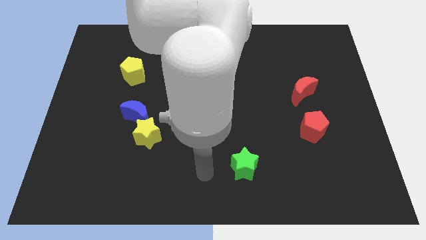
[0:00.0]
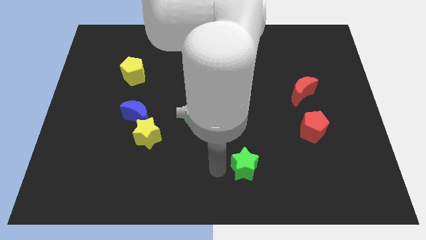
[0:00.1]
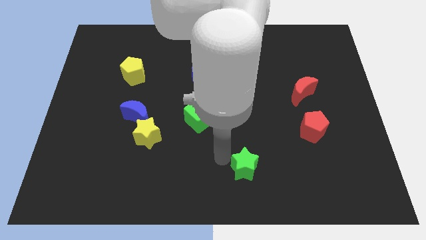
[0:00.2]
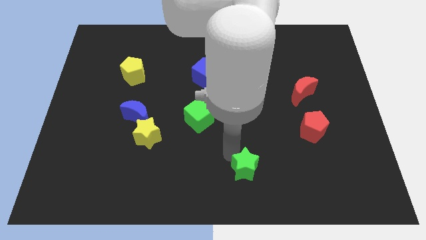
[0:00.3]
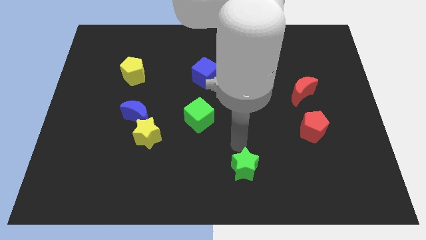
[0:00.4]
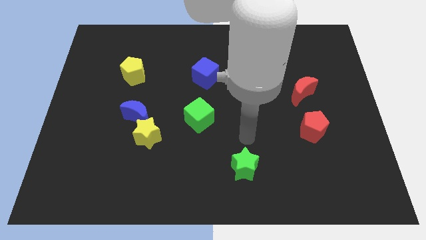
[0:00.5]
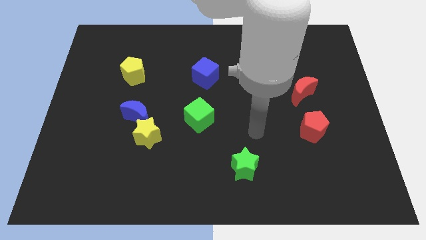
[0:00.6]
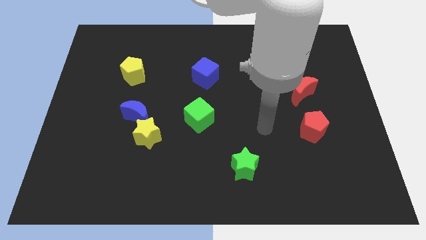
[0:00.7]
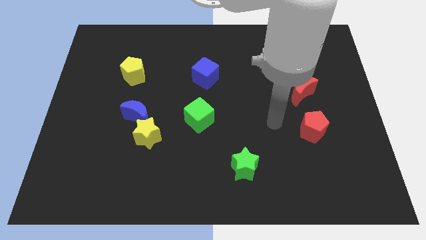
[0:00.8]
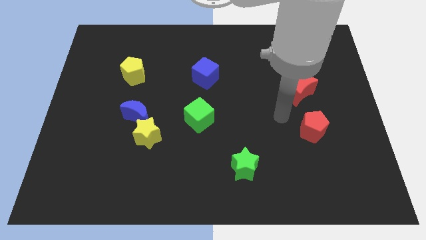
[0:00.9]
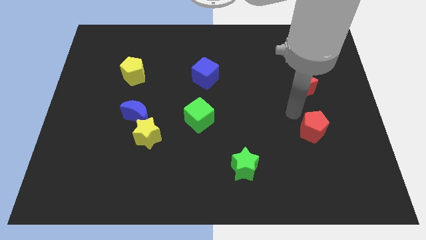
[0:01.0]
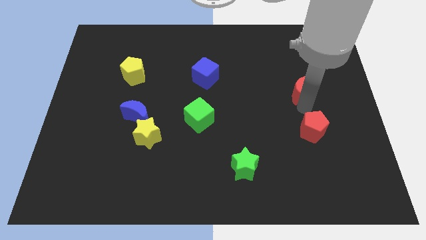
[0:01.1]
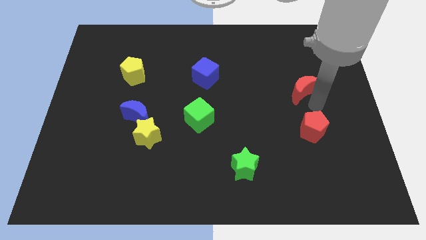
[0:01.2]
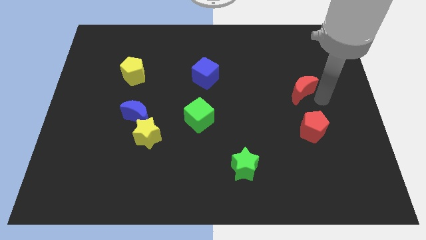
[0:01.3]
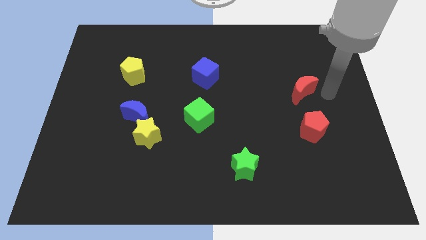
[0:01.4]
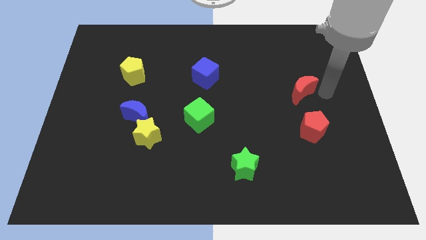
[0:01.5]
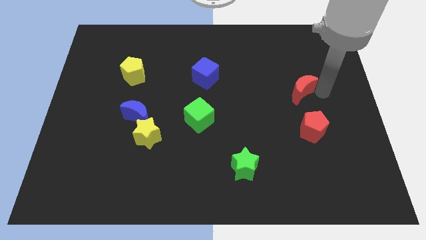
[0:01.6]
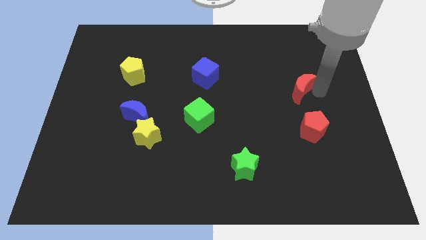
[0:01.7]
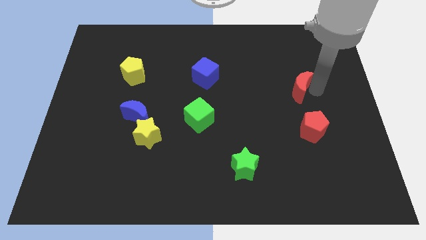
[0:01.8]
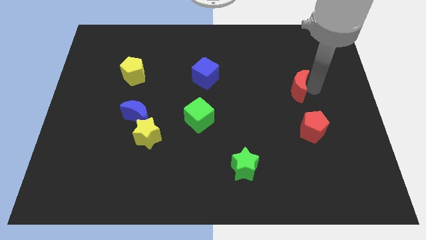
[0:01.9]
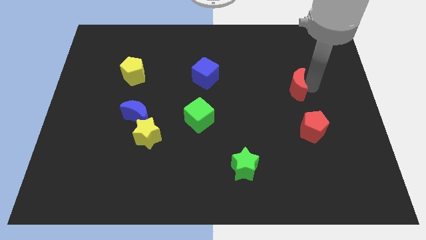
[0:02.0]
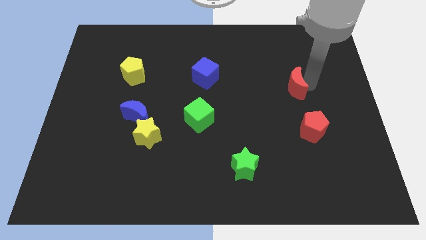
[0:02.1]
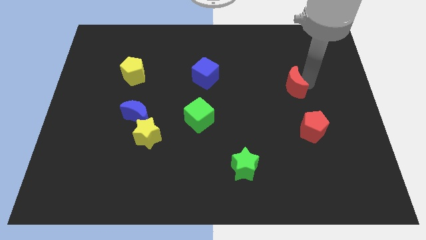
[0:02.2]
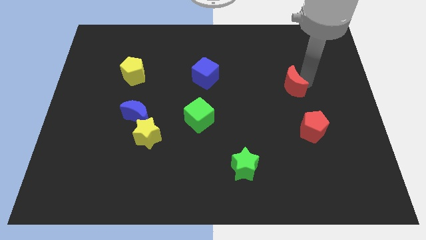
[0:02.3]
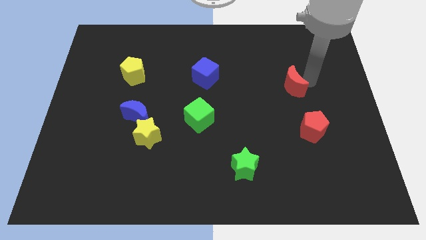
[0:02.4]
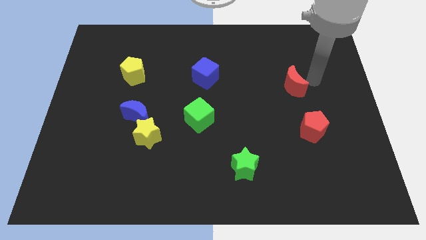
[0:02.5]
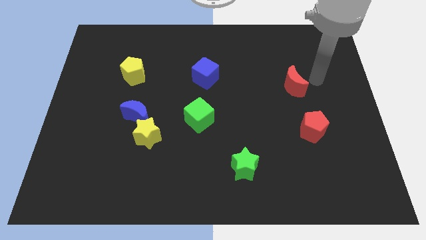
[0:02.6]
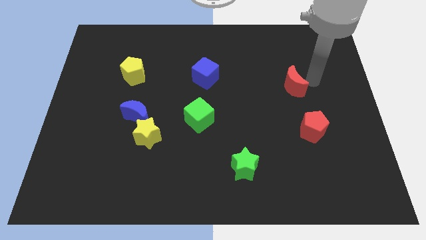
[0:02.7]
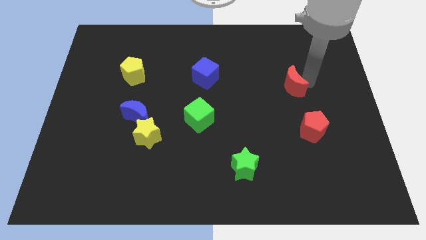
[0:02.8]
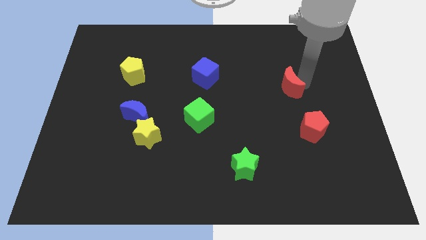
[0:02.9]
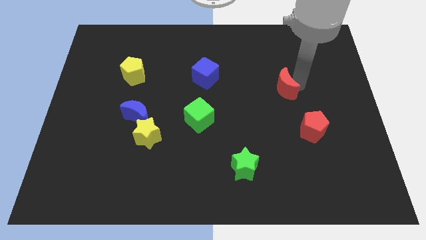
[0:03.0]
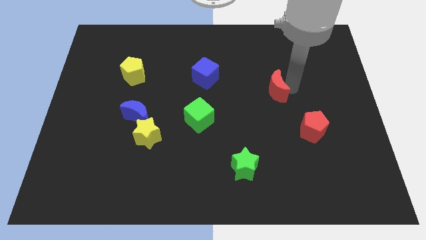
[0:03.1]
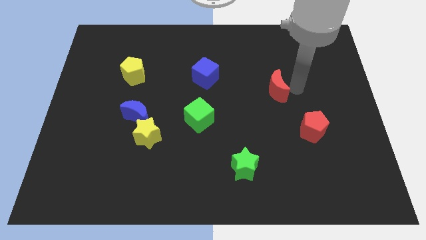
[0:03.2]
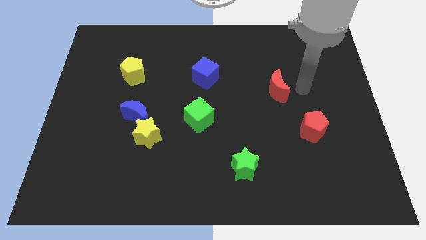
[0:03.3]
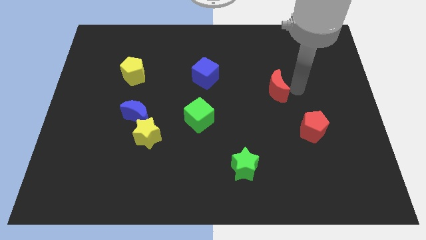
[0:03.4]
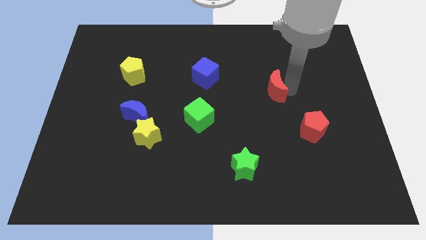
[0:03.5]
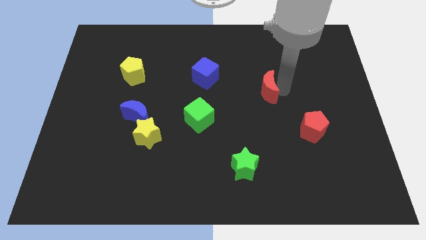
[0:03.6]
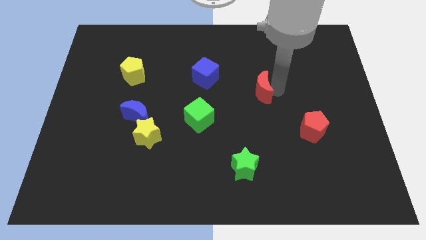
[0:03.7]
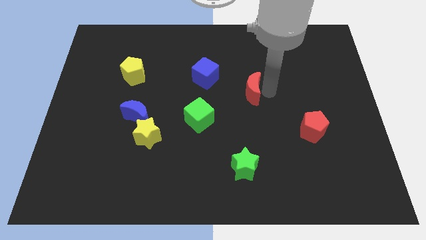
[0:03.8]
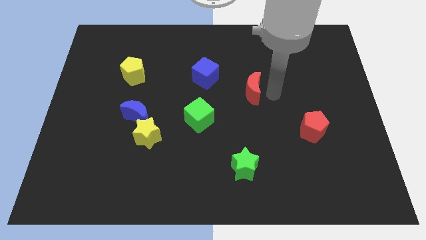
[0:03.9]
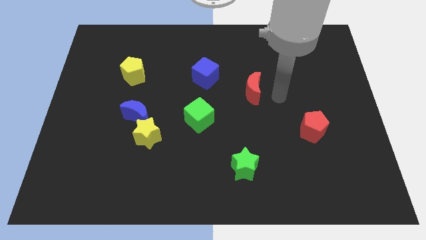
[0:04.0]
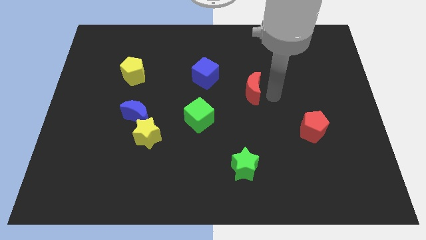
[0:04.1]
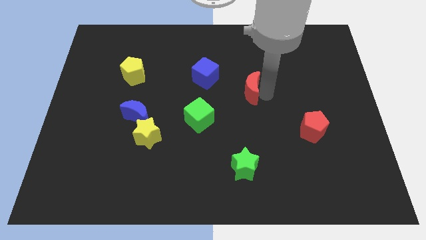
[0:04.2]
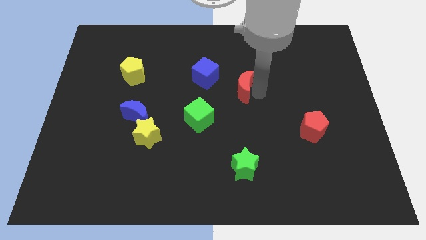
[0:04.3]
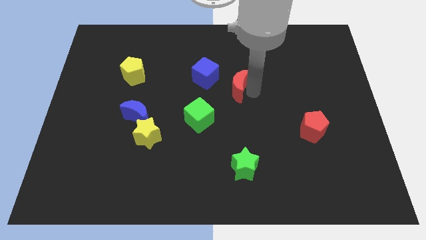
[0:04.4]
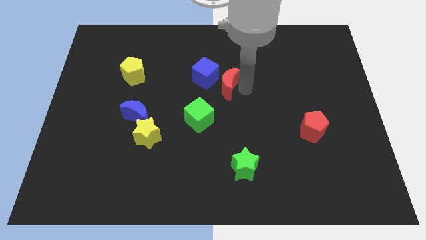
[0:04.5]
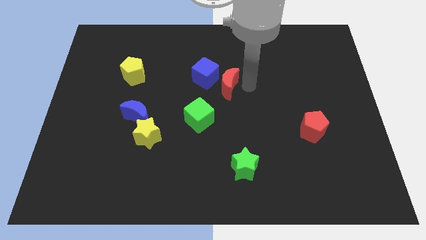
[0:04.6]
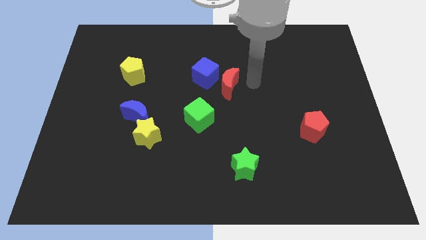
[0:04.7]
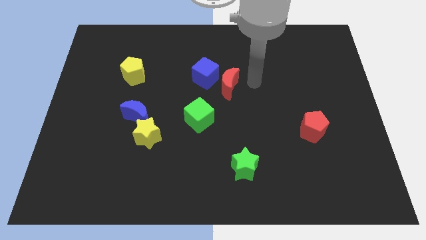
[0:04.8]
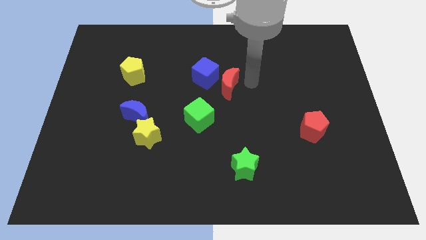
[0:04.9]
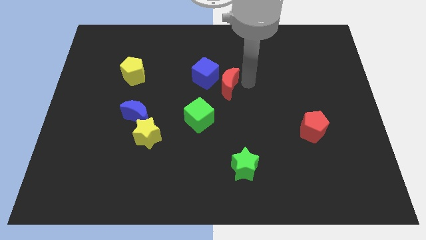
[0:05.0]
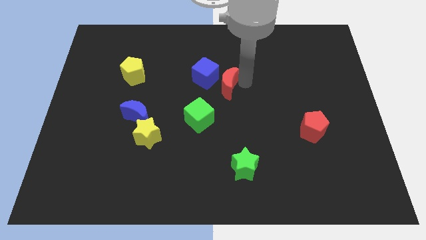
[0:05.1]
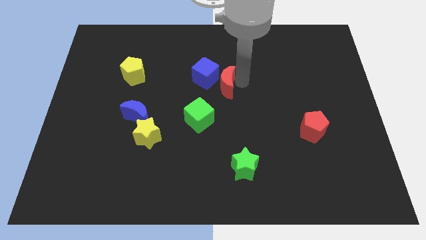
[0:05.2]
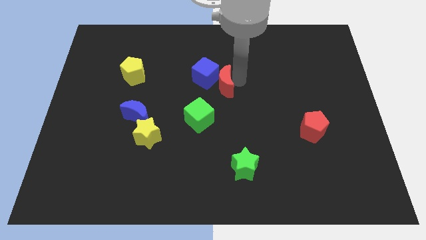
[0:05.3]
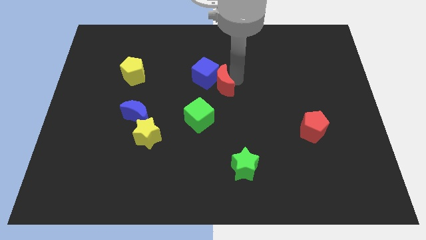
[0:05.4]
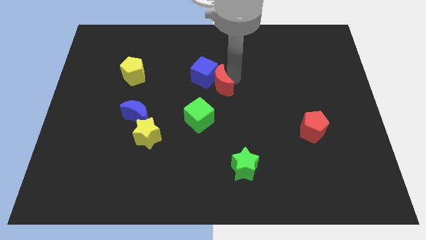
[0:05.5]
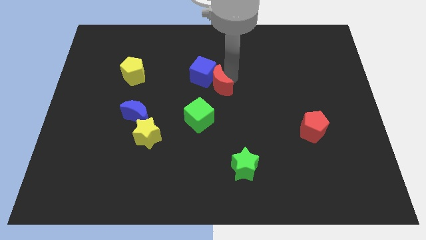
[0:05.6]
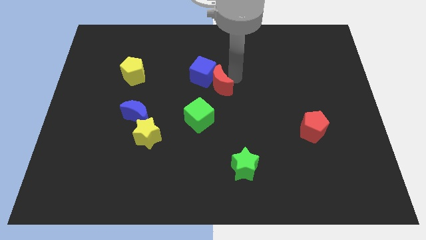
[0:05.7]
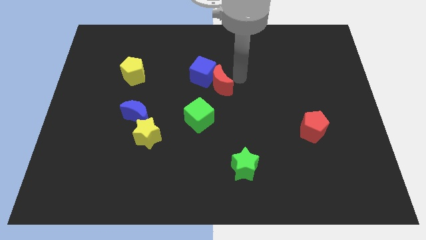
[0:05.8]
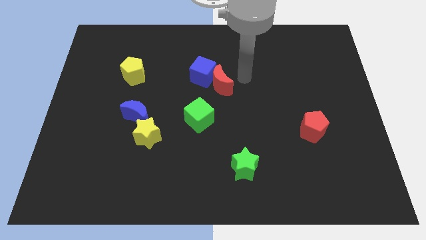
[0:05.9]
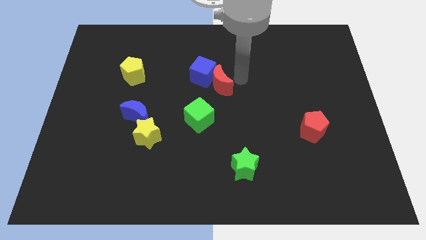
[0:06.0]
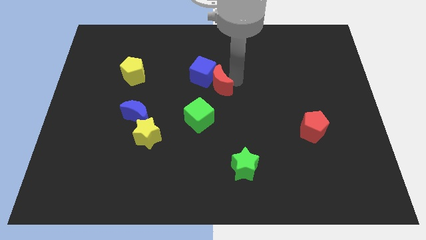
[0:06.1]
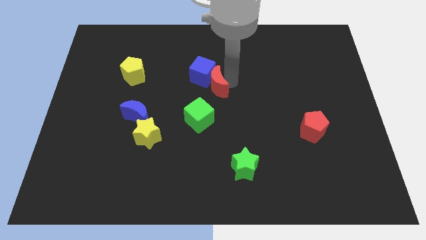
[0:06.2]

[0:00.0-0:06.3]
push the red moon to the left

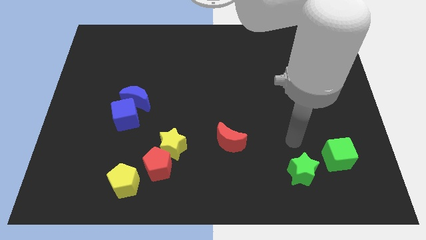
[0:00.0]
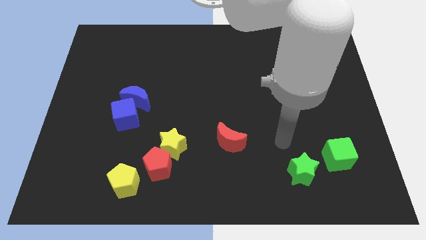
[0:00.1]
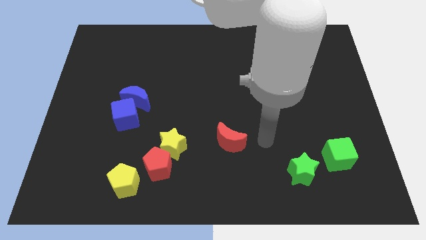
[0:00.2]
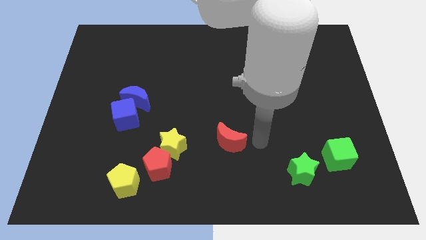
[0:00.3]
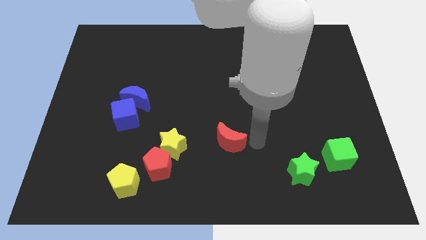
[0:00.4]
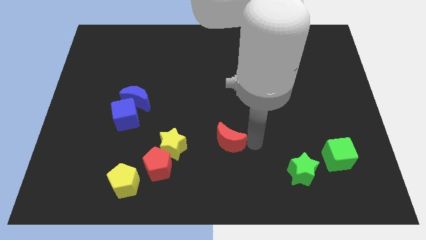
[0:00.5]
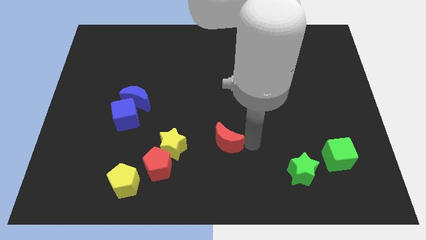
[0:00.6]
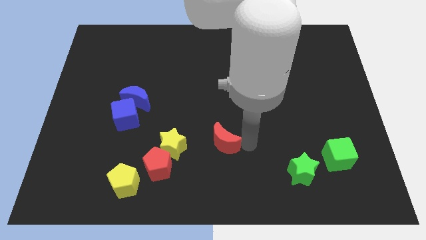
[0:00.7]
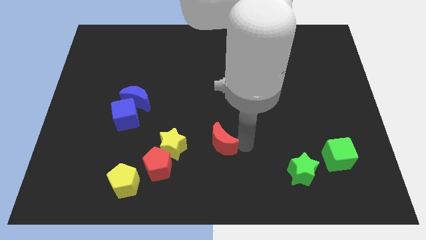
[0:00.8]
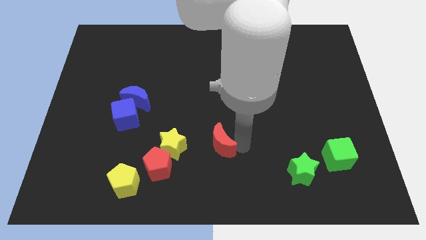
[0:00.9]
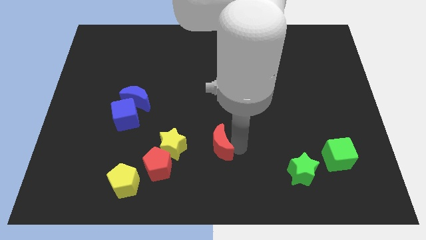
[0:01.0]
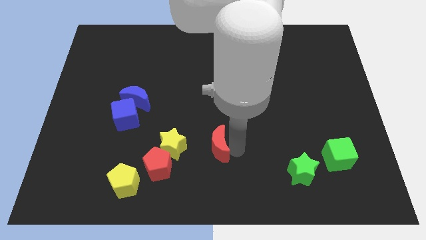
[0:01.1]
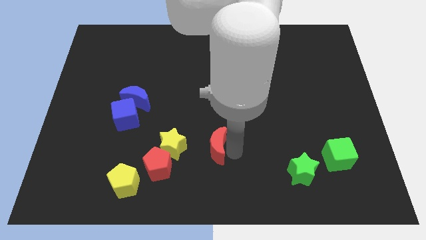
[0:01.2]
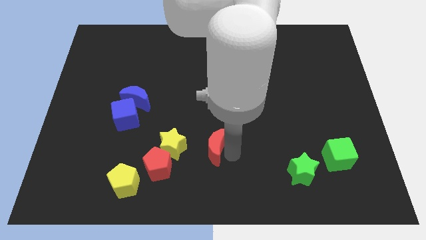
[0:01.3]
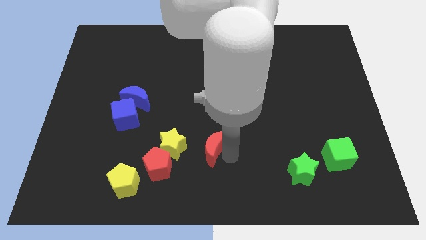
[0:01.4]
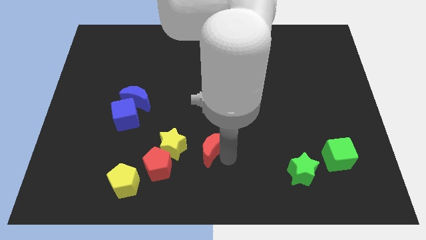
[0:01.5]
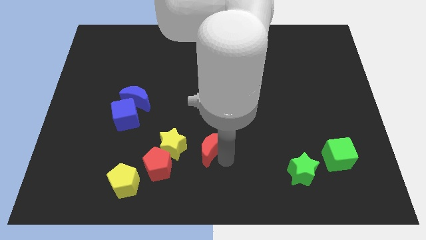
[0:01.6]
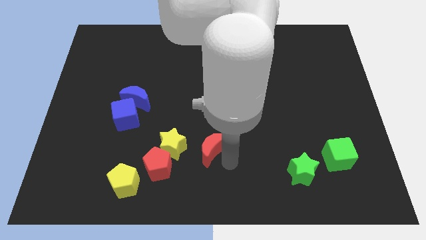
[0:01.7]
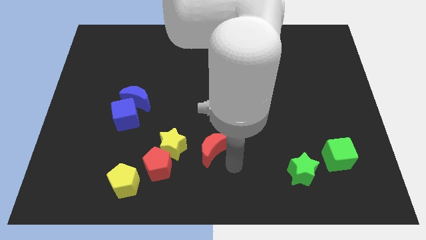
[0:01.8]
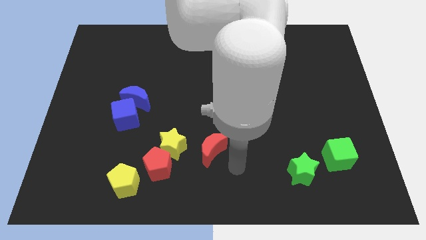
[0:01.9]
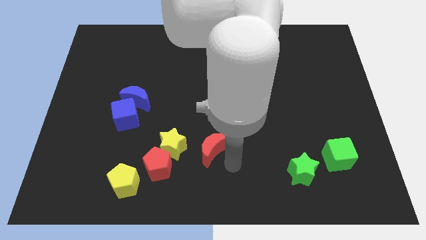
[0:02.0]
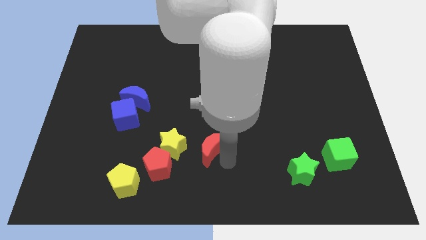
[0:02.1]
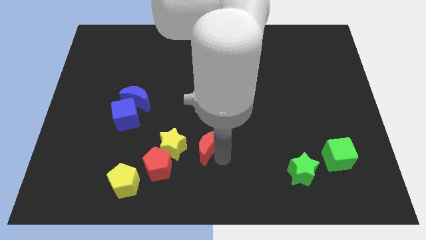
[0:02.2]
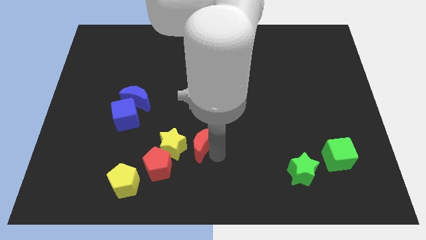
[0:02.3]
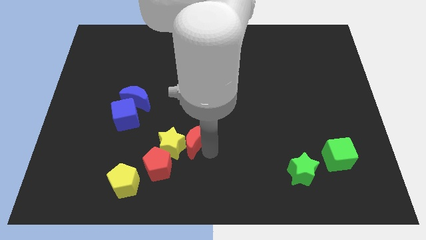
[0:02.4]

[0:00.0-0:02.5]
slightly move the red moon to the left
